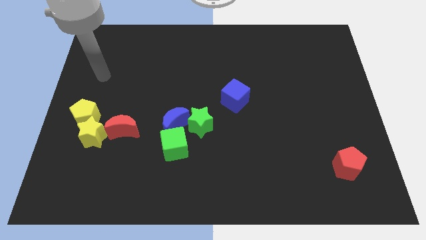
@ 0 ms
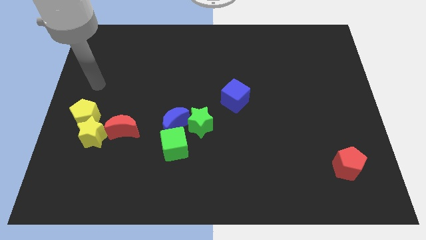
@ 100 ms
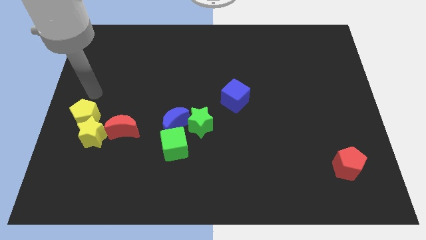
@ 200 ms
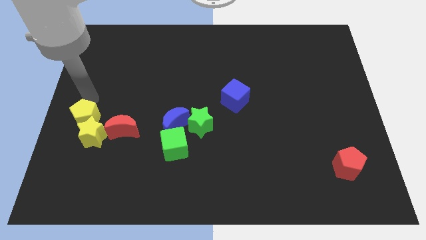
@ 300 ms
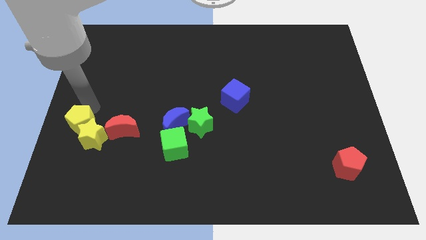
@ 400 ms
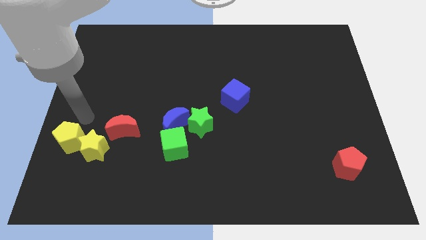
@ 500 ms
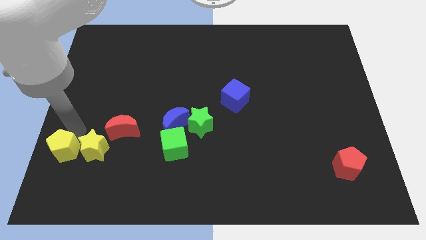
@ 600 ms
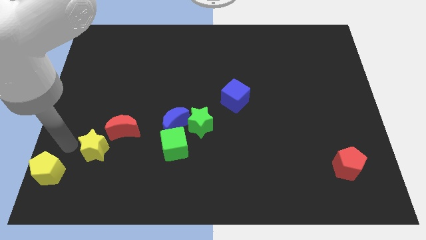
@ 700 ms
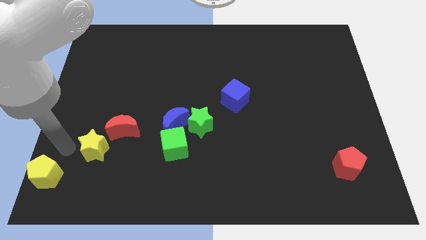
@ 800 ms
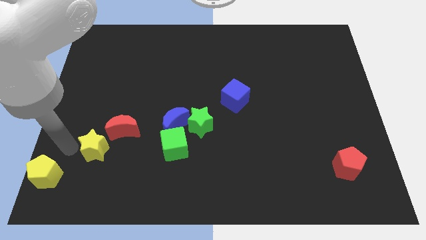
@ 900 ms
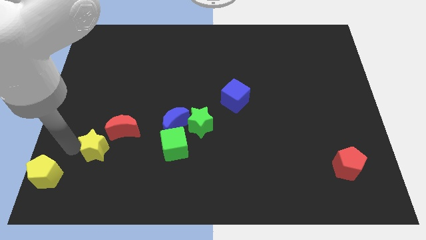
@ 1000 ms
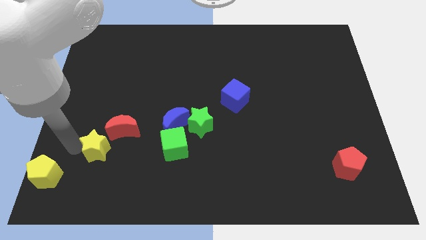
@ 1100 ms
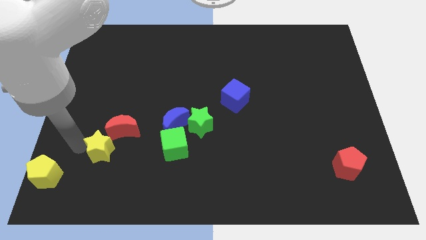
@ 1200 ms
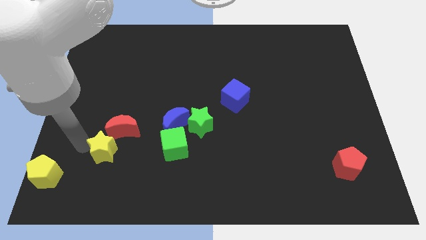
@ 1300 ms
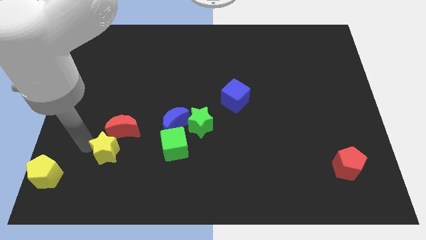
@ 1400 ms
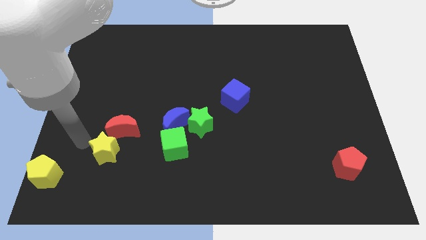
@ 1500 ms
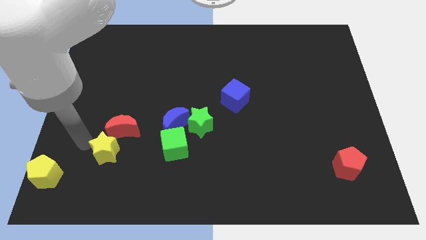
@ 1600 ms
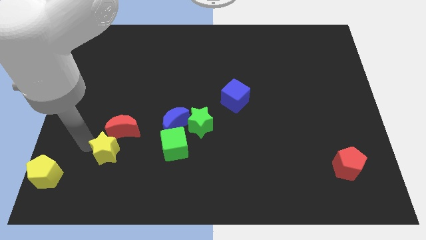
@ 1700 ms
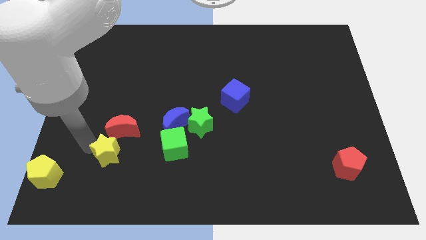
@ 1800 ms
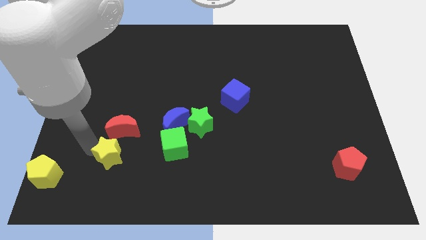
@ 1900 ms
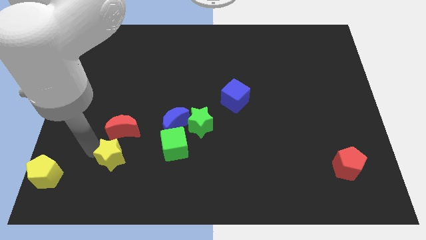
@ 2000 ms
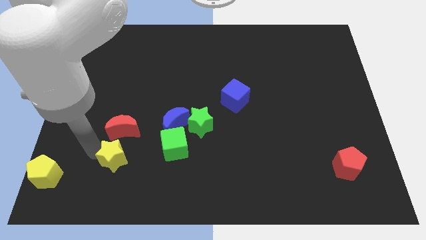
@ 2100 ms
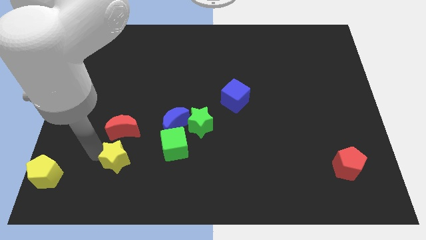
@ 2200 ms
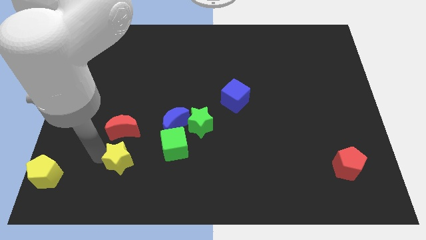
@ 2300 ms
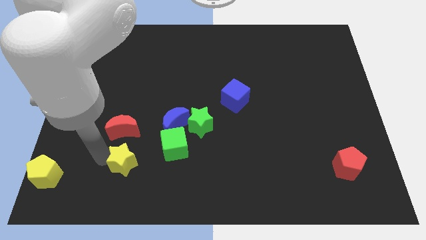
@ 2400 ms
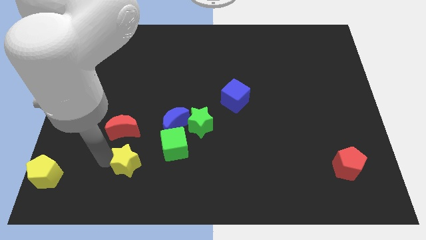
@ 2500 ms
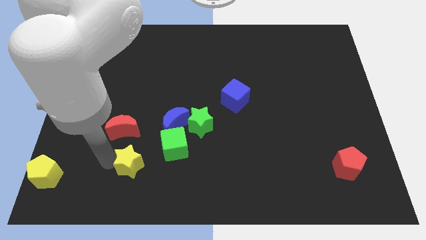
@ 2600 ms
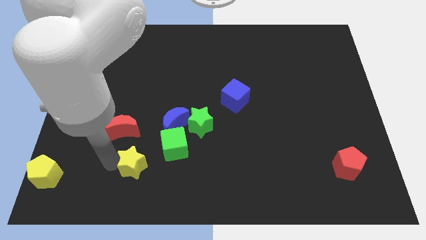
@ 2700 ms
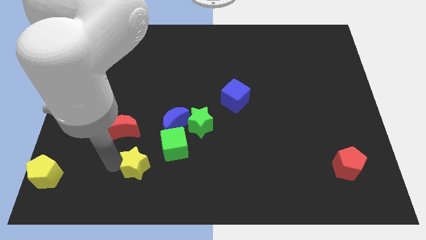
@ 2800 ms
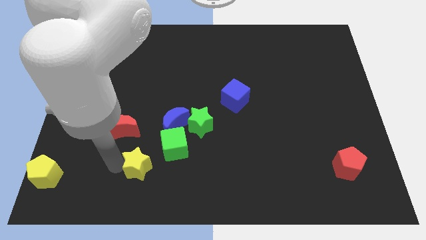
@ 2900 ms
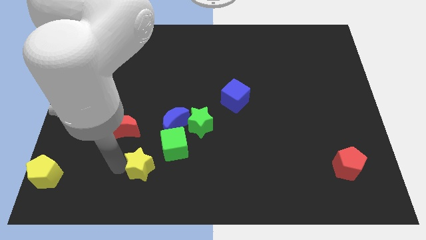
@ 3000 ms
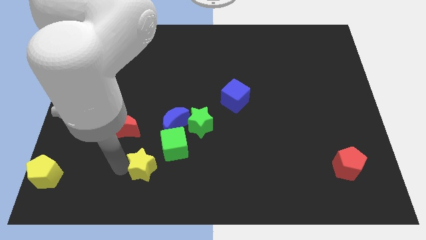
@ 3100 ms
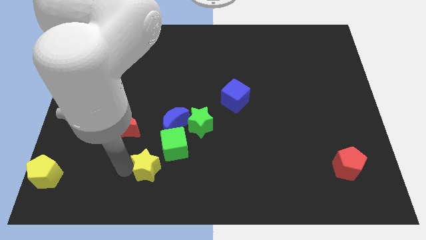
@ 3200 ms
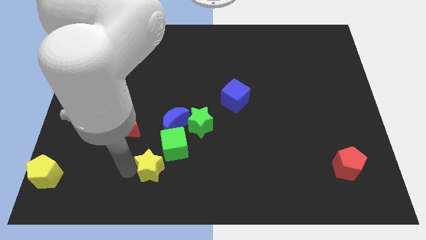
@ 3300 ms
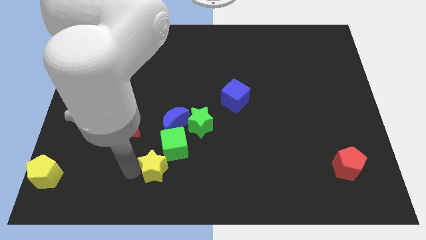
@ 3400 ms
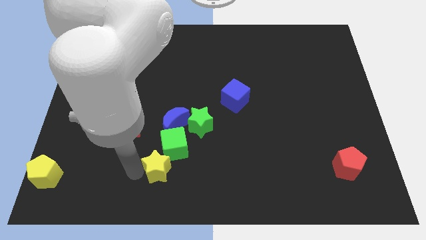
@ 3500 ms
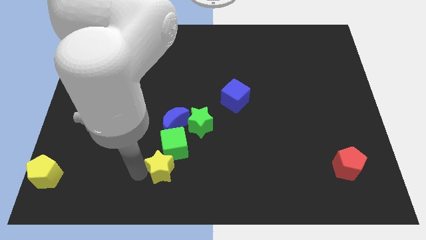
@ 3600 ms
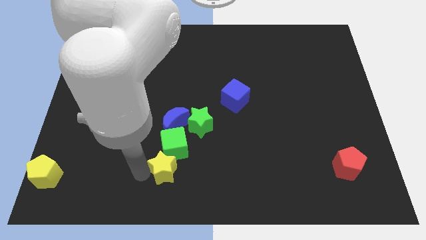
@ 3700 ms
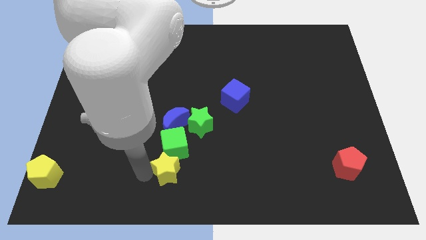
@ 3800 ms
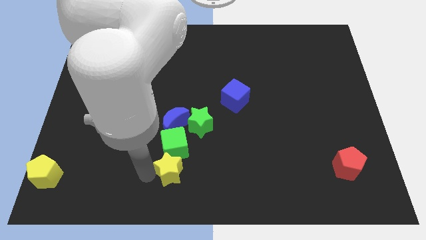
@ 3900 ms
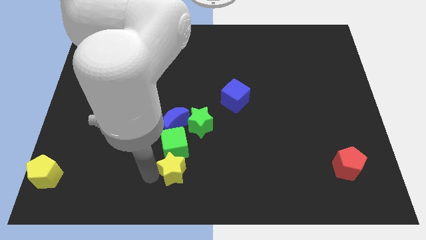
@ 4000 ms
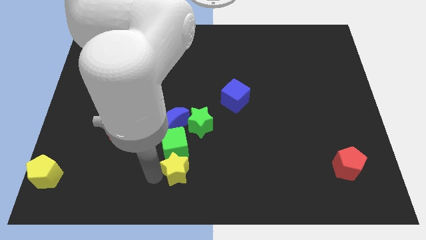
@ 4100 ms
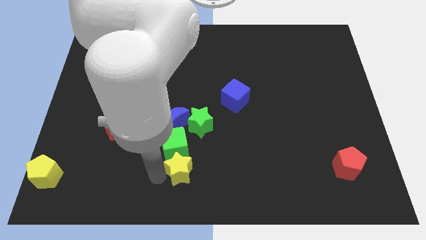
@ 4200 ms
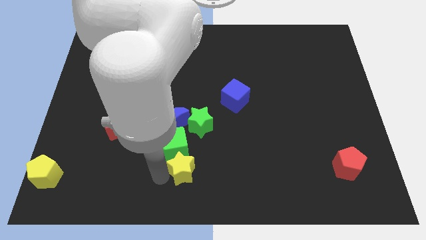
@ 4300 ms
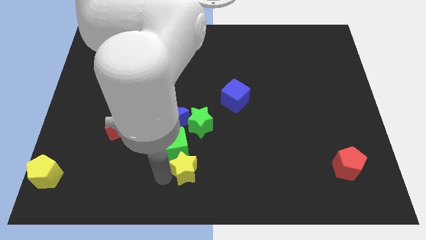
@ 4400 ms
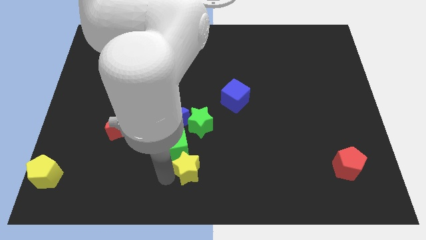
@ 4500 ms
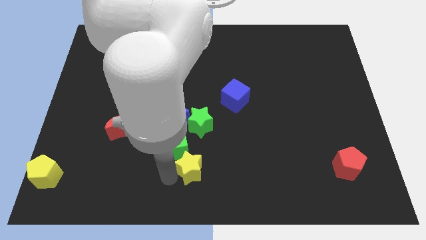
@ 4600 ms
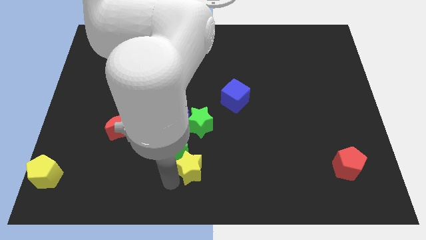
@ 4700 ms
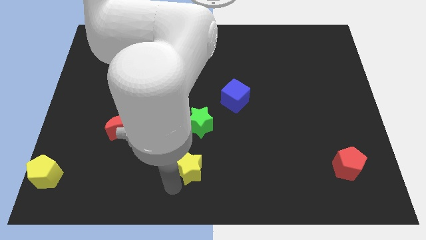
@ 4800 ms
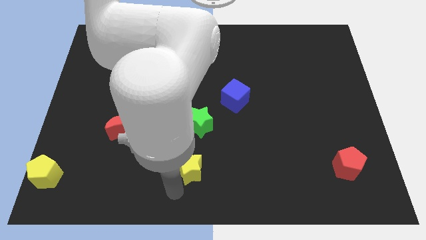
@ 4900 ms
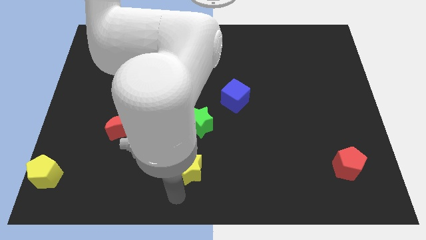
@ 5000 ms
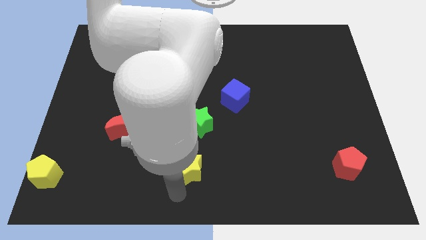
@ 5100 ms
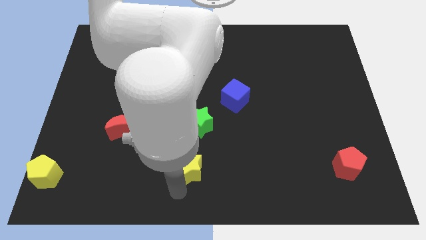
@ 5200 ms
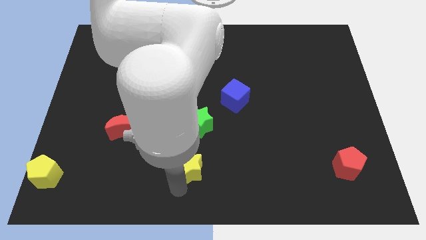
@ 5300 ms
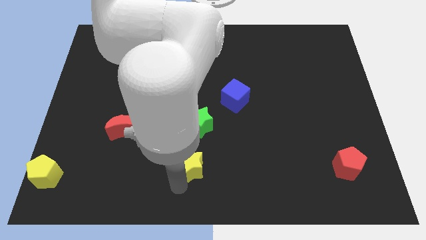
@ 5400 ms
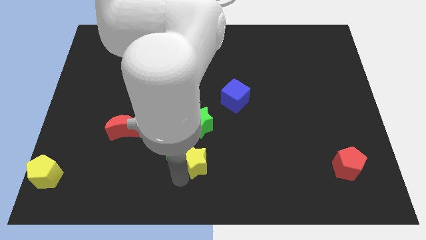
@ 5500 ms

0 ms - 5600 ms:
move the yellow star right

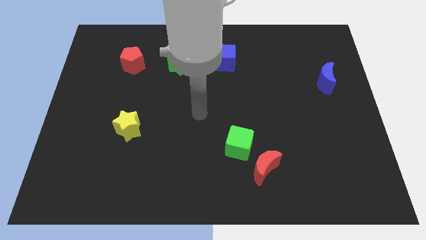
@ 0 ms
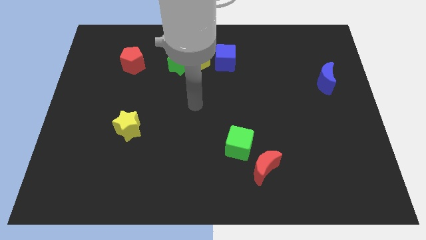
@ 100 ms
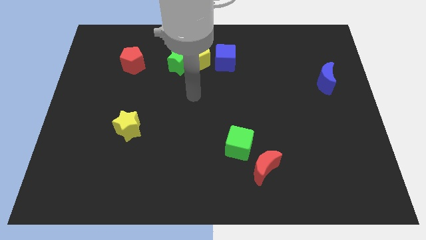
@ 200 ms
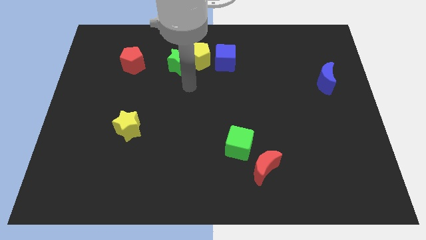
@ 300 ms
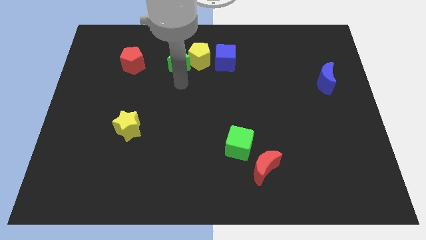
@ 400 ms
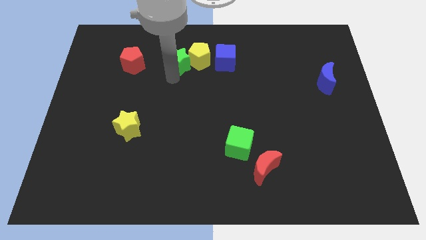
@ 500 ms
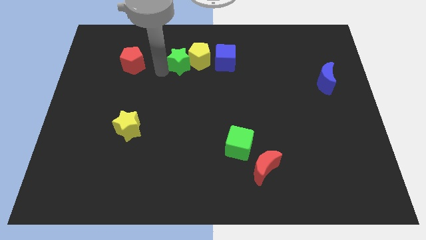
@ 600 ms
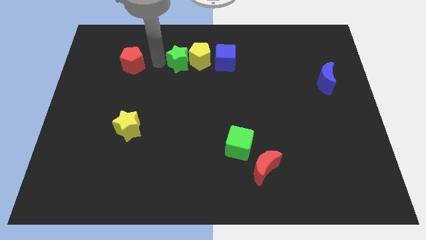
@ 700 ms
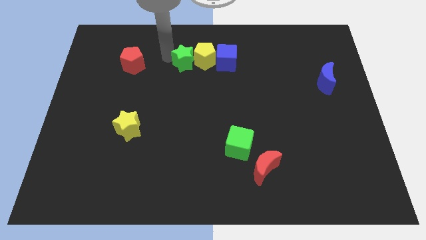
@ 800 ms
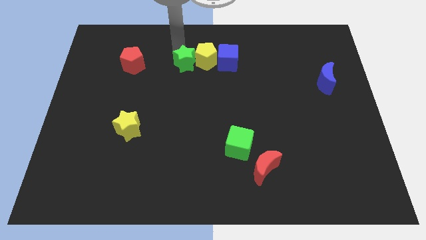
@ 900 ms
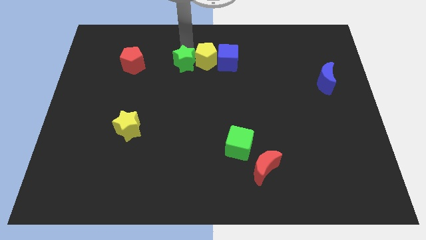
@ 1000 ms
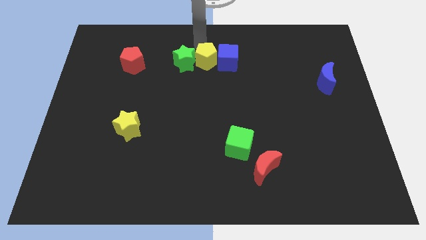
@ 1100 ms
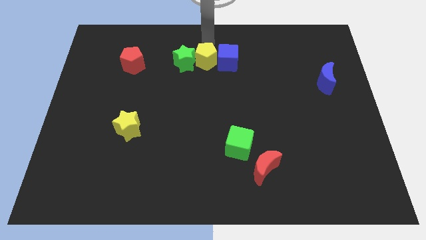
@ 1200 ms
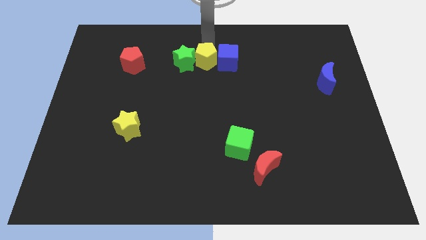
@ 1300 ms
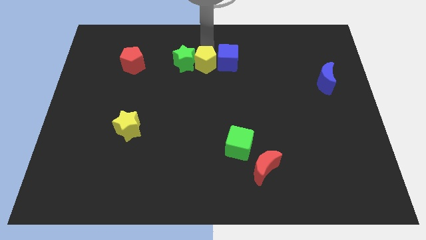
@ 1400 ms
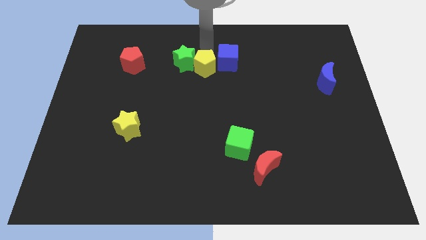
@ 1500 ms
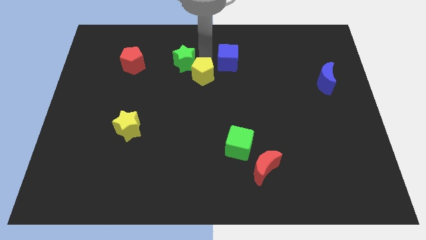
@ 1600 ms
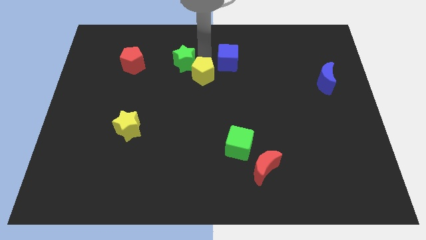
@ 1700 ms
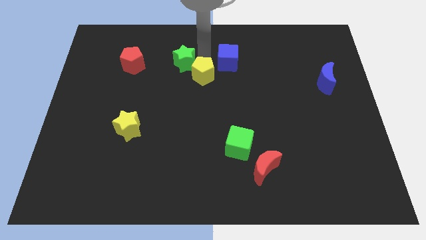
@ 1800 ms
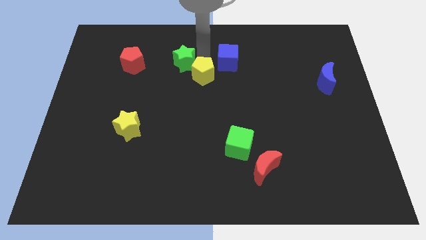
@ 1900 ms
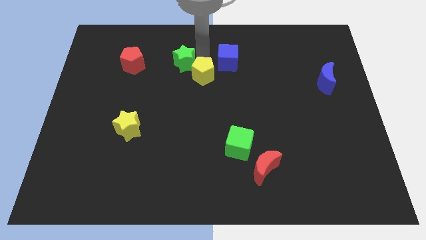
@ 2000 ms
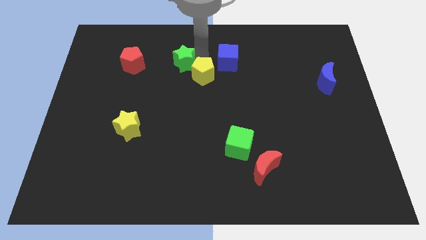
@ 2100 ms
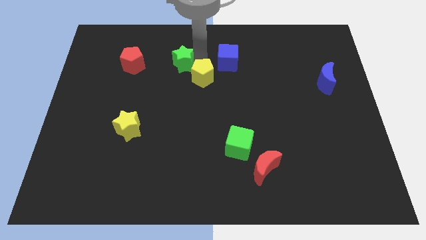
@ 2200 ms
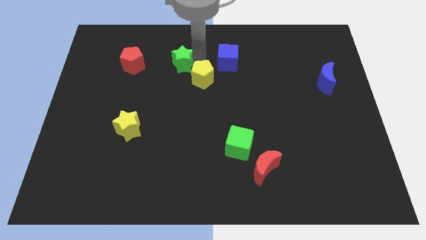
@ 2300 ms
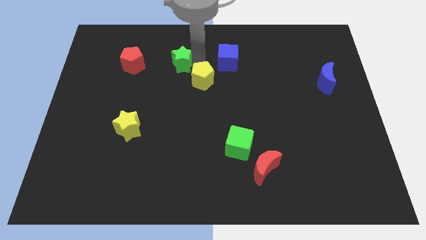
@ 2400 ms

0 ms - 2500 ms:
push the yellow pentagon down a little
